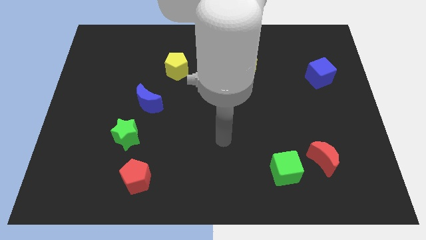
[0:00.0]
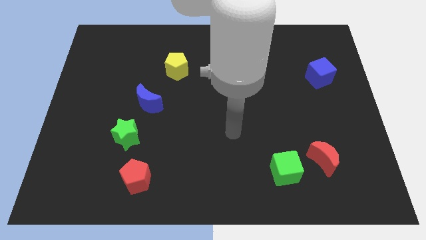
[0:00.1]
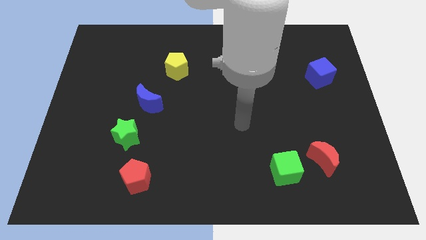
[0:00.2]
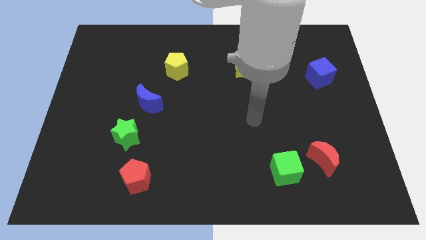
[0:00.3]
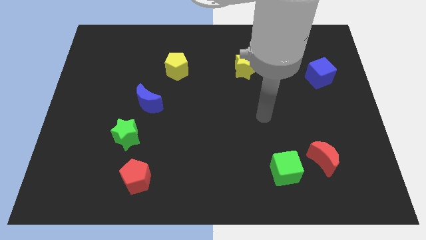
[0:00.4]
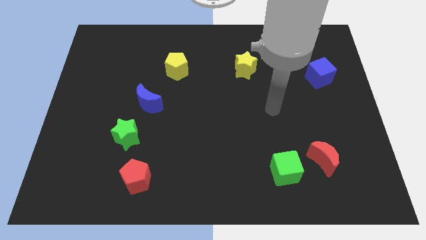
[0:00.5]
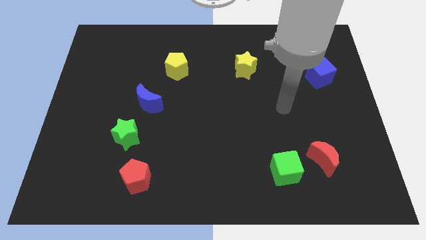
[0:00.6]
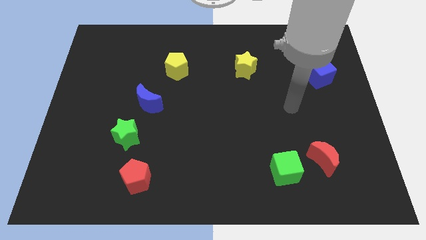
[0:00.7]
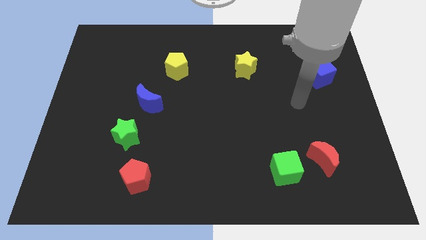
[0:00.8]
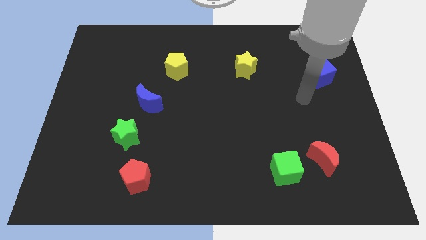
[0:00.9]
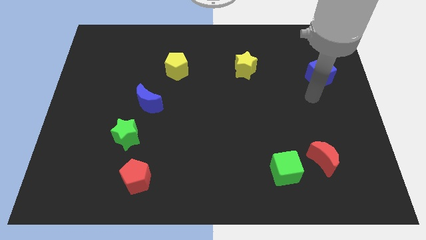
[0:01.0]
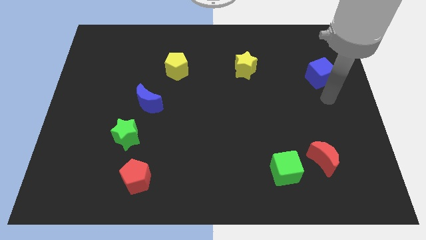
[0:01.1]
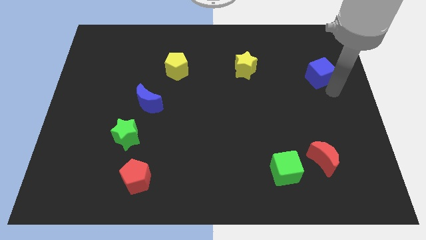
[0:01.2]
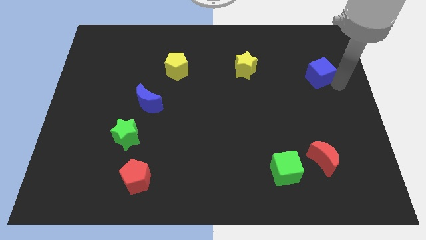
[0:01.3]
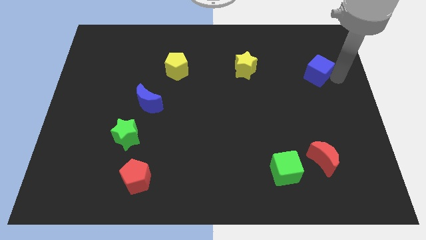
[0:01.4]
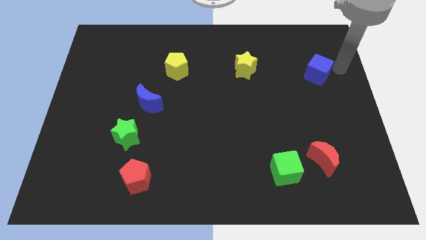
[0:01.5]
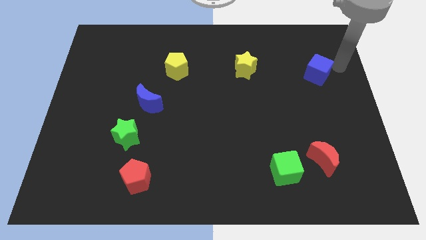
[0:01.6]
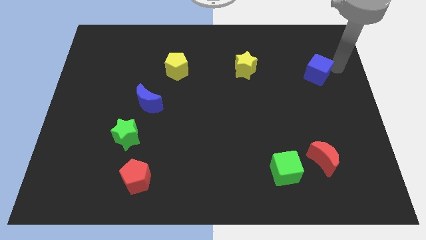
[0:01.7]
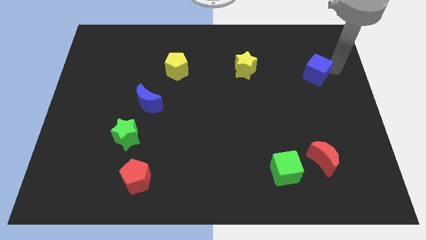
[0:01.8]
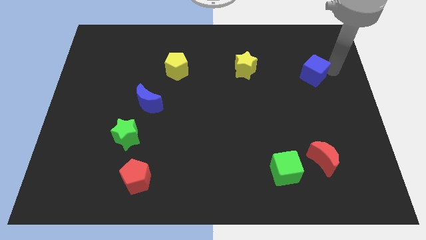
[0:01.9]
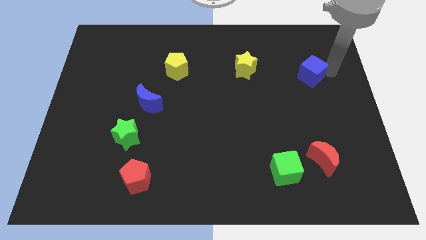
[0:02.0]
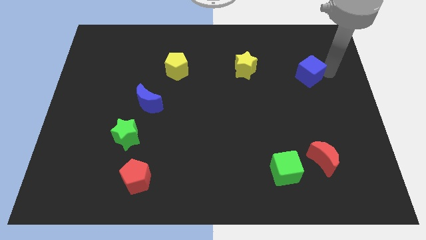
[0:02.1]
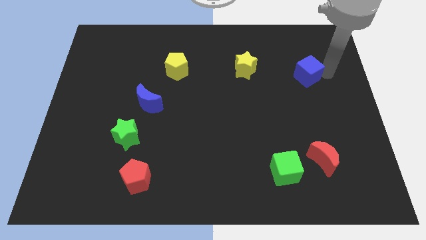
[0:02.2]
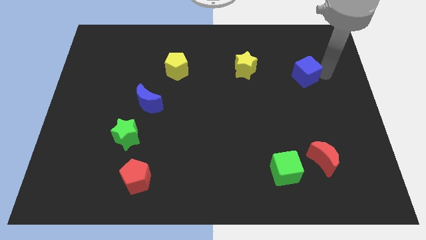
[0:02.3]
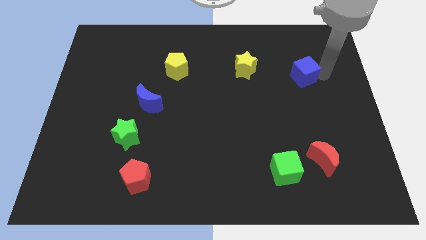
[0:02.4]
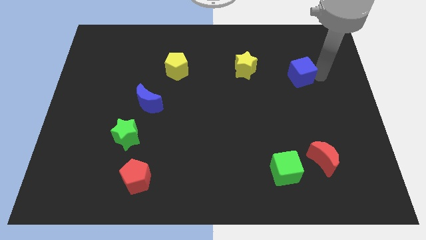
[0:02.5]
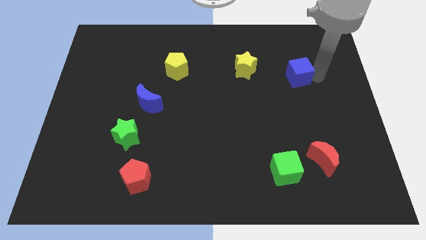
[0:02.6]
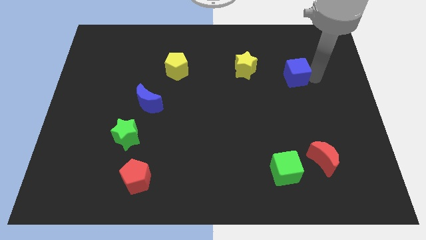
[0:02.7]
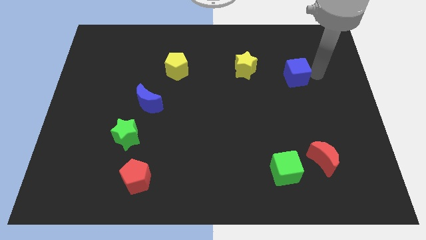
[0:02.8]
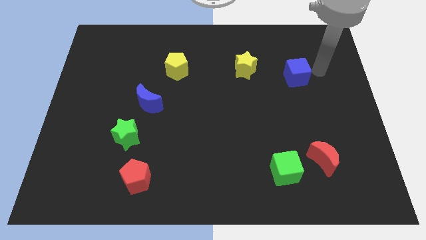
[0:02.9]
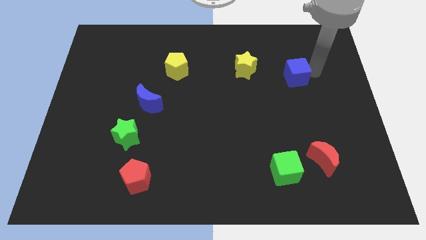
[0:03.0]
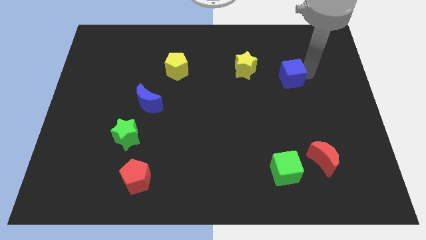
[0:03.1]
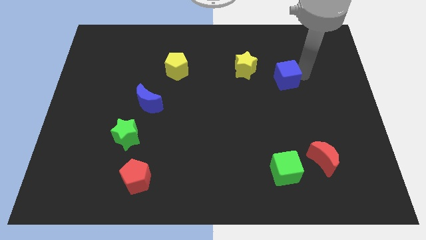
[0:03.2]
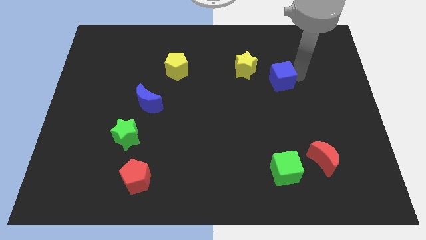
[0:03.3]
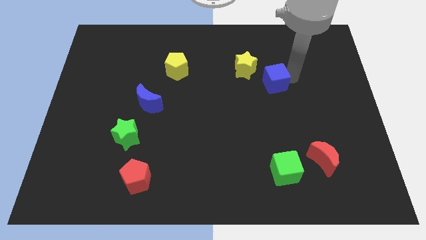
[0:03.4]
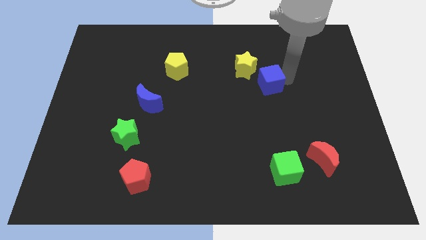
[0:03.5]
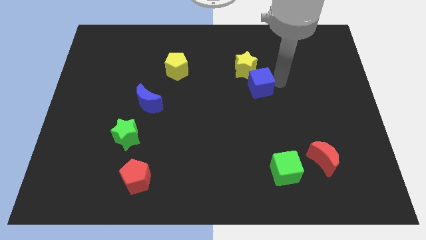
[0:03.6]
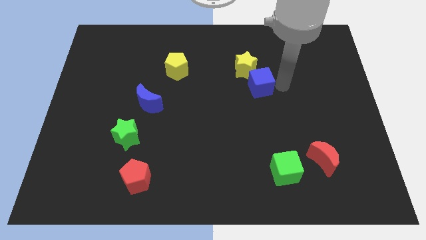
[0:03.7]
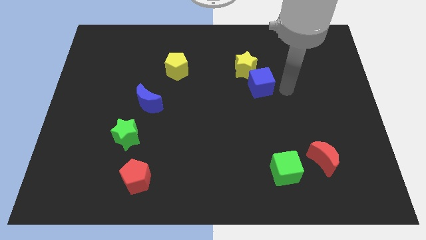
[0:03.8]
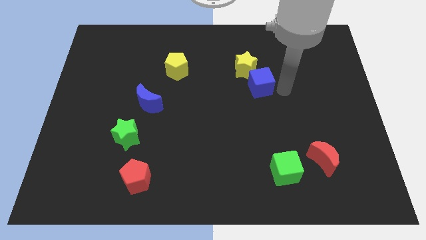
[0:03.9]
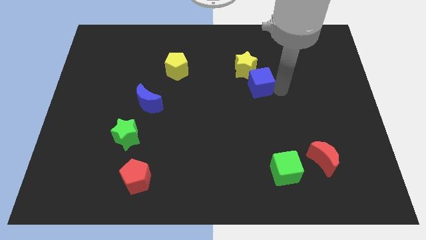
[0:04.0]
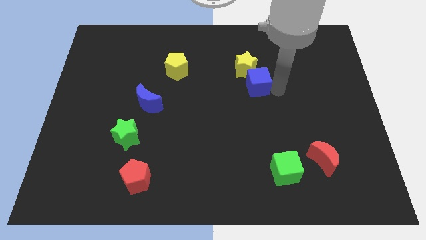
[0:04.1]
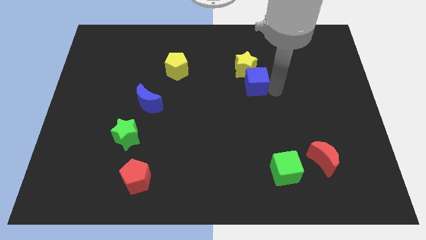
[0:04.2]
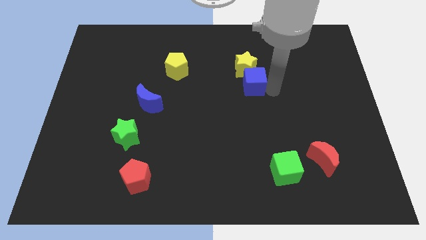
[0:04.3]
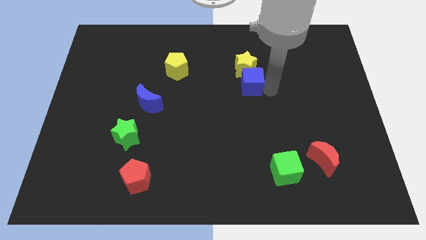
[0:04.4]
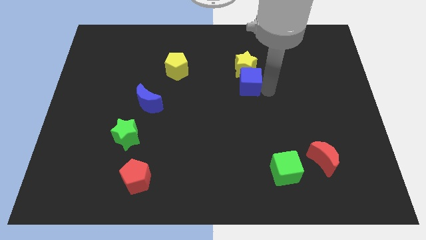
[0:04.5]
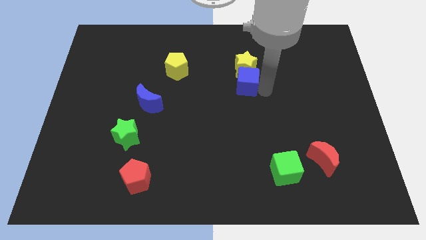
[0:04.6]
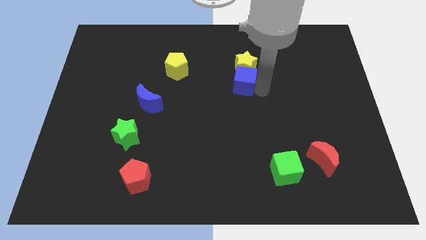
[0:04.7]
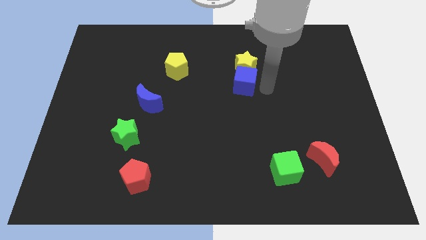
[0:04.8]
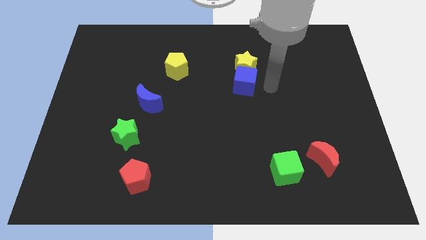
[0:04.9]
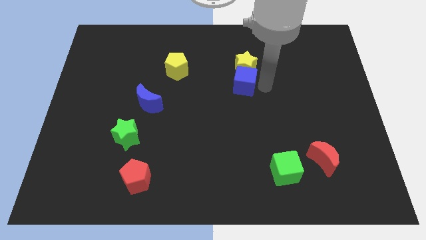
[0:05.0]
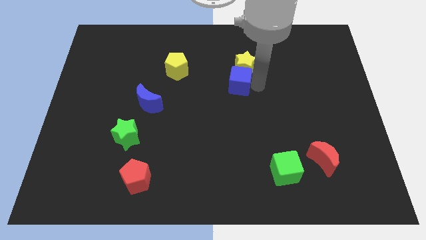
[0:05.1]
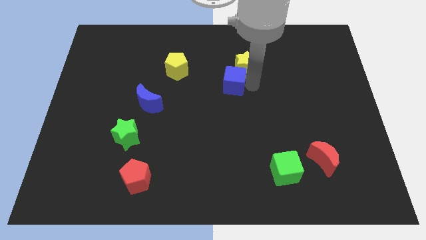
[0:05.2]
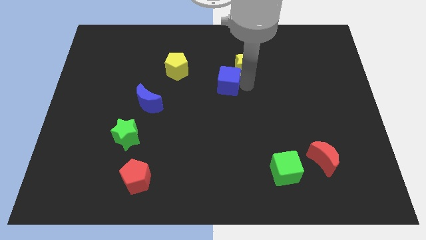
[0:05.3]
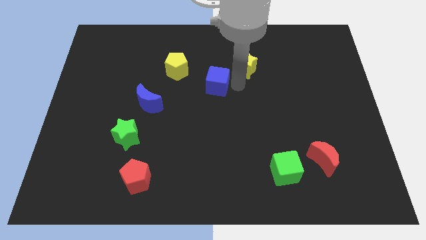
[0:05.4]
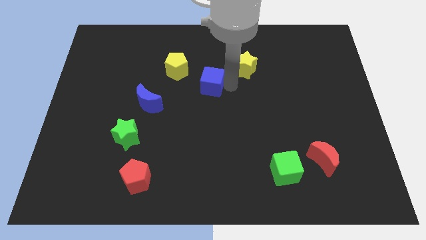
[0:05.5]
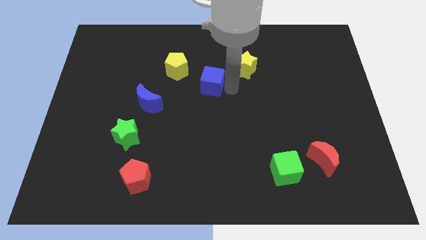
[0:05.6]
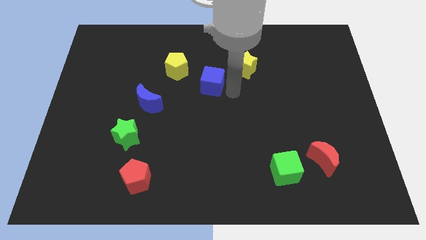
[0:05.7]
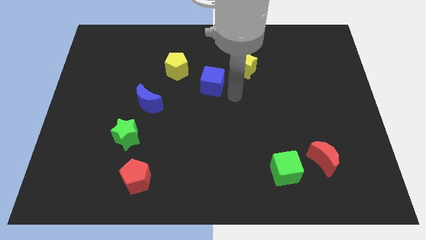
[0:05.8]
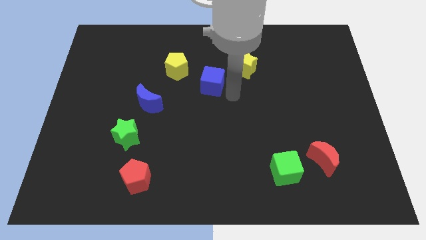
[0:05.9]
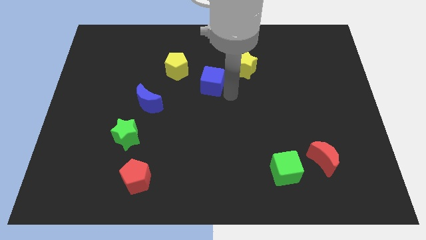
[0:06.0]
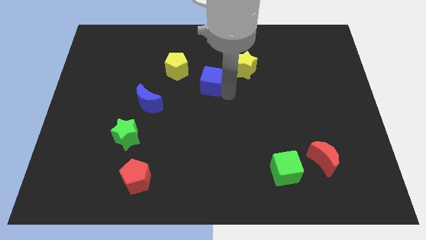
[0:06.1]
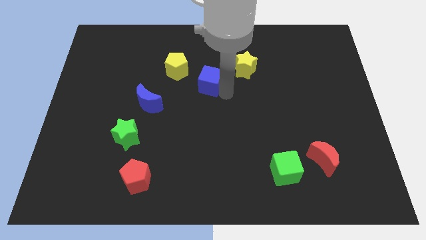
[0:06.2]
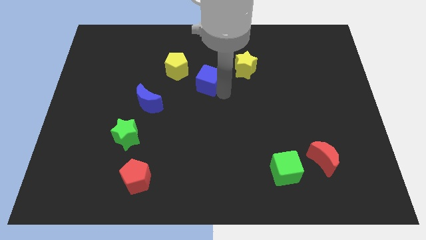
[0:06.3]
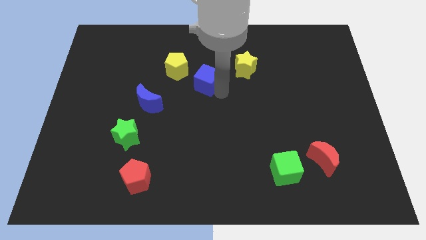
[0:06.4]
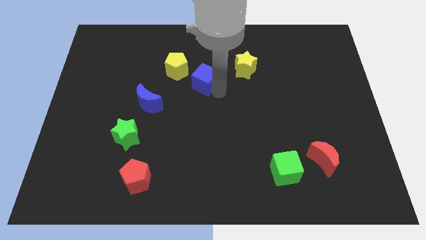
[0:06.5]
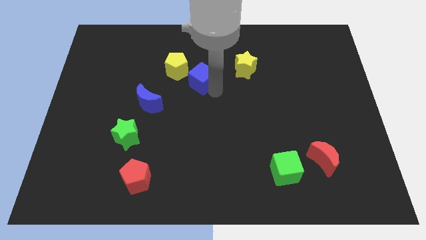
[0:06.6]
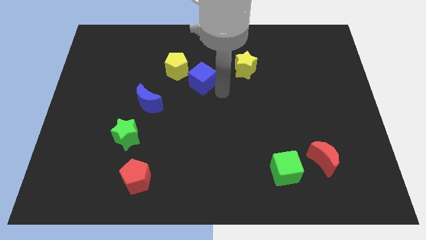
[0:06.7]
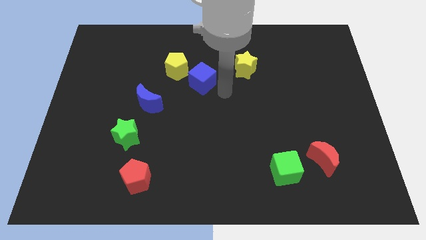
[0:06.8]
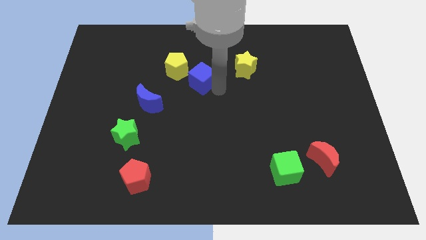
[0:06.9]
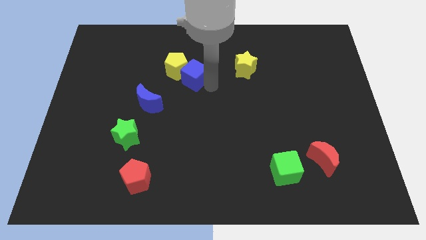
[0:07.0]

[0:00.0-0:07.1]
push the blue cube to the yellow pentagon

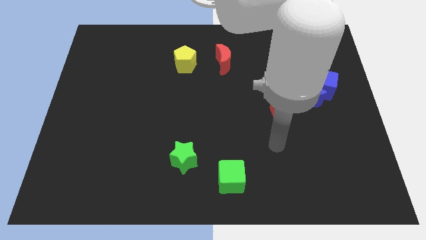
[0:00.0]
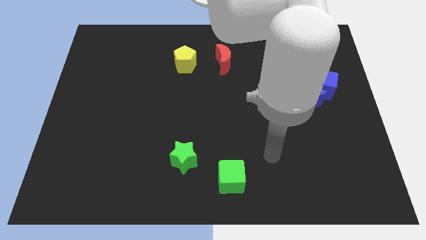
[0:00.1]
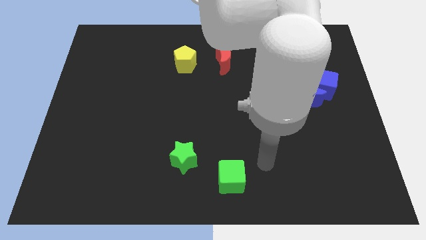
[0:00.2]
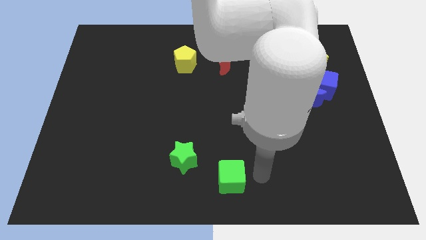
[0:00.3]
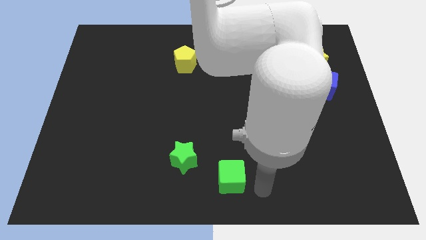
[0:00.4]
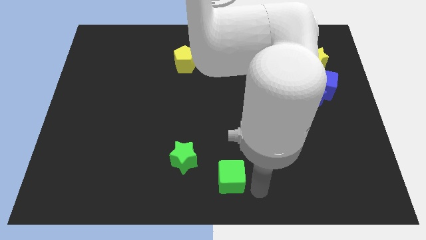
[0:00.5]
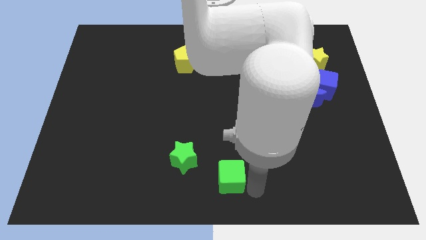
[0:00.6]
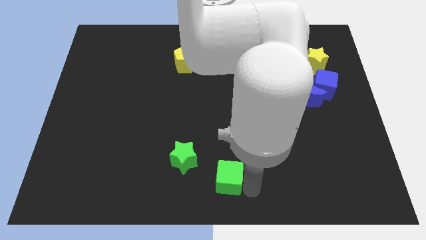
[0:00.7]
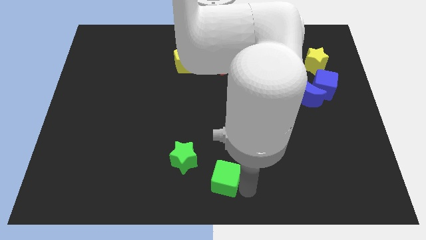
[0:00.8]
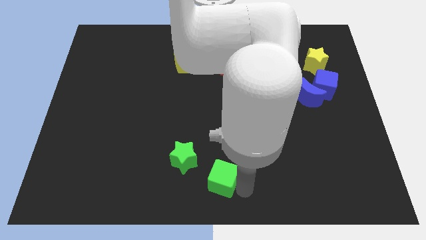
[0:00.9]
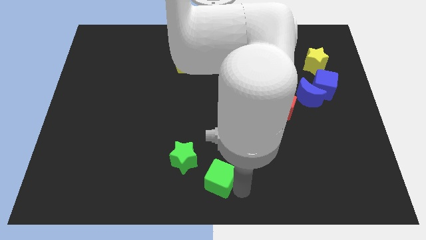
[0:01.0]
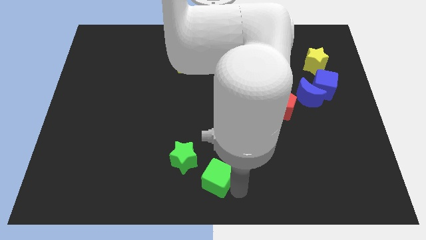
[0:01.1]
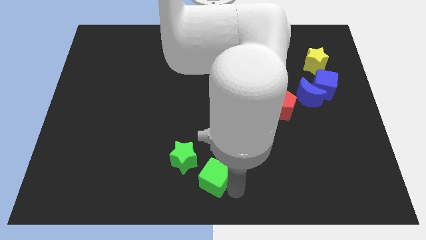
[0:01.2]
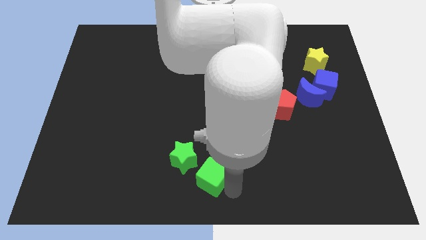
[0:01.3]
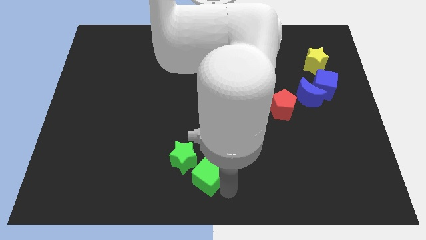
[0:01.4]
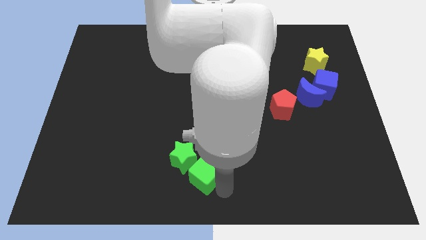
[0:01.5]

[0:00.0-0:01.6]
move the green cube close to the green star
